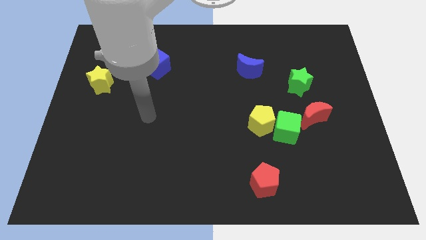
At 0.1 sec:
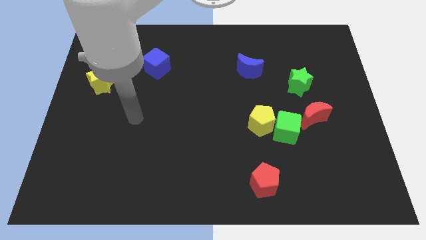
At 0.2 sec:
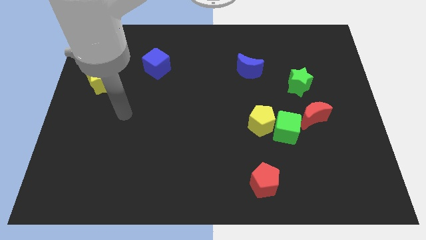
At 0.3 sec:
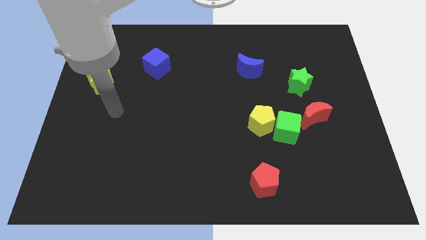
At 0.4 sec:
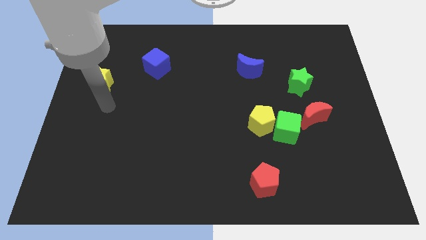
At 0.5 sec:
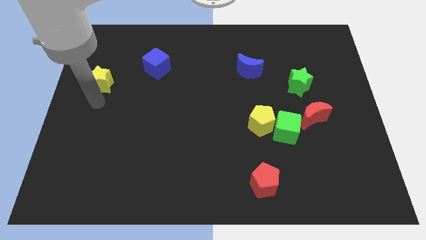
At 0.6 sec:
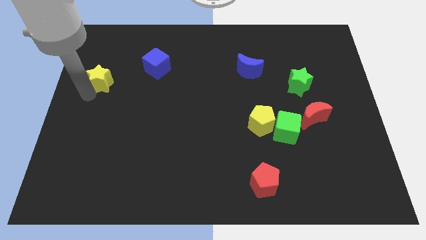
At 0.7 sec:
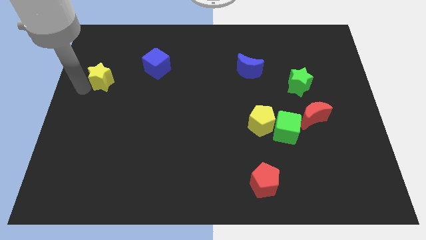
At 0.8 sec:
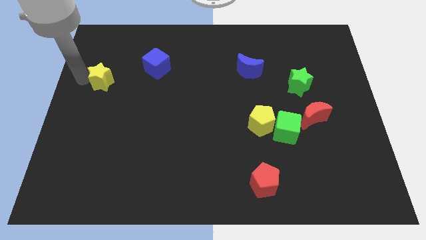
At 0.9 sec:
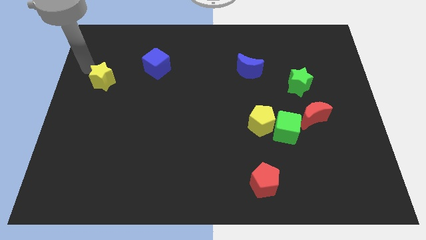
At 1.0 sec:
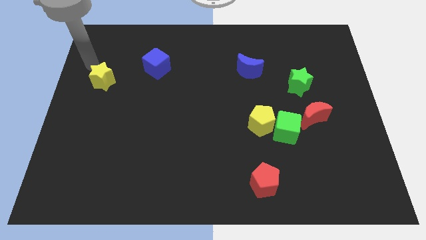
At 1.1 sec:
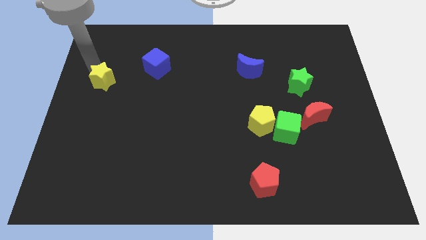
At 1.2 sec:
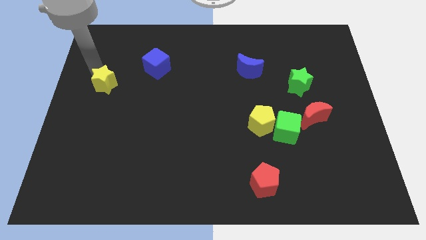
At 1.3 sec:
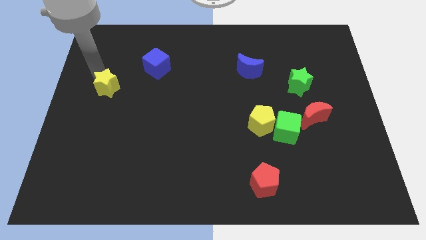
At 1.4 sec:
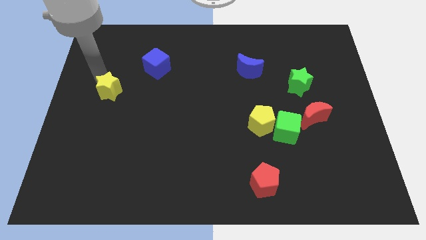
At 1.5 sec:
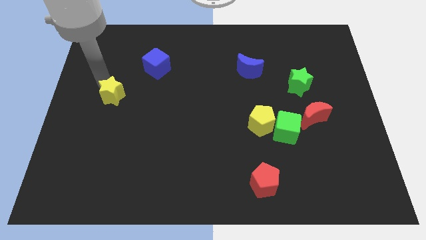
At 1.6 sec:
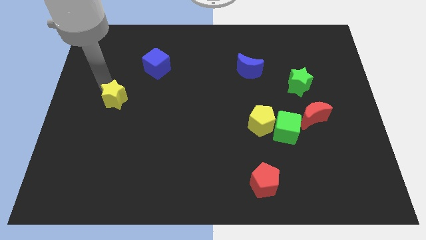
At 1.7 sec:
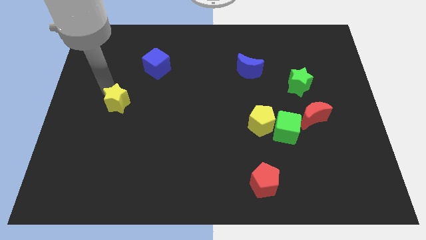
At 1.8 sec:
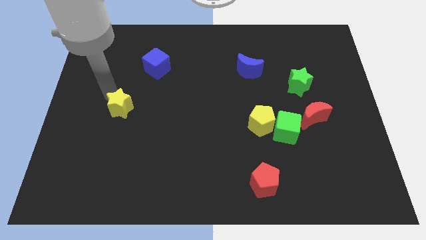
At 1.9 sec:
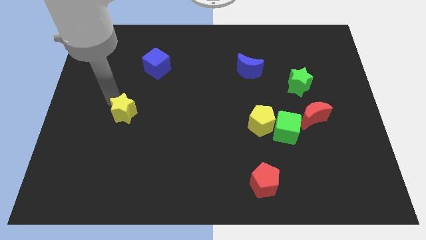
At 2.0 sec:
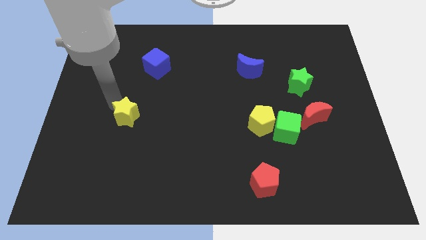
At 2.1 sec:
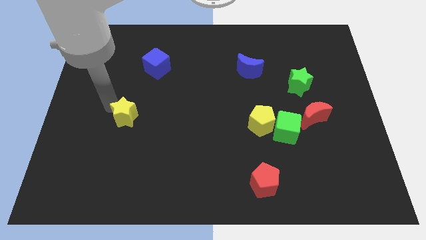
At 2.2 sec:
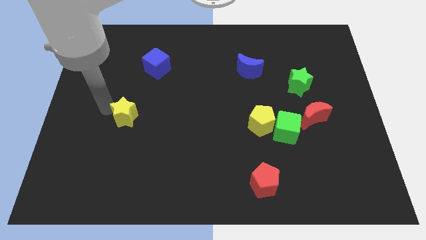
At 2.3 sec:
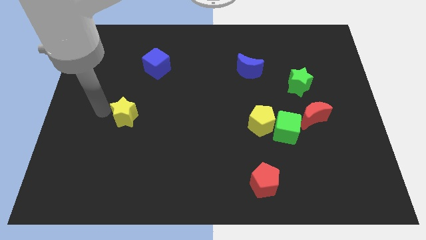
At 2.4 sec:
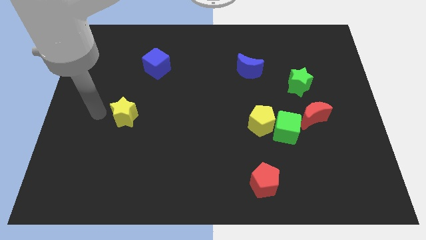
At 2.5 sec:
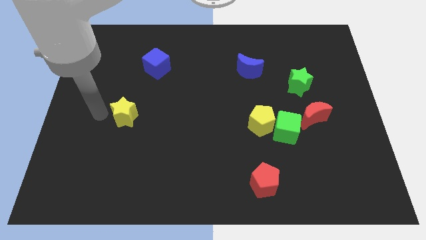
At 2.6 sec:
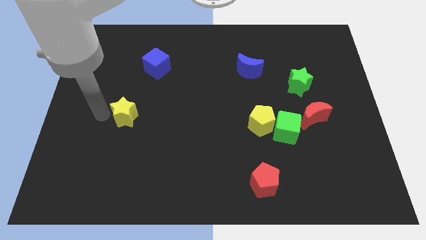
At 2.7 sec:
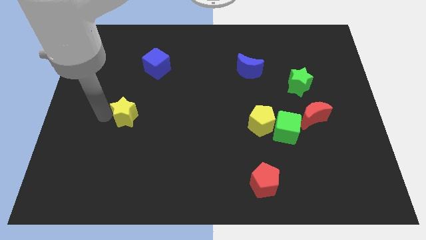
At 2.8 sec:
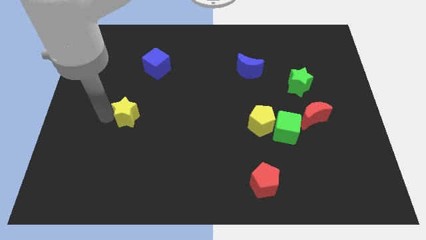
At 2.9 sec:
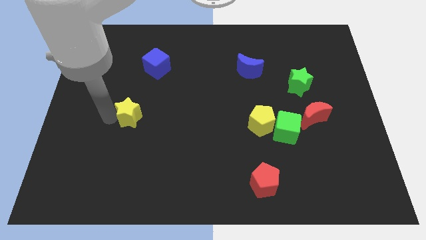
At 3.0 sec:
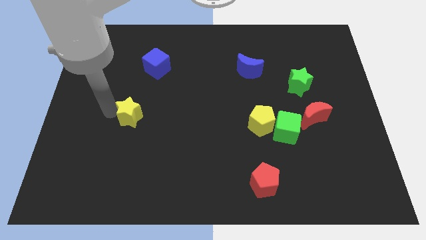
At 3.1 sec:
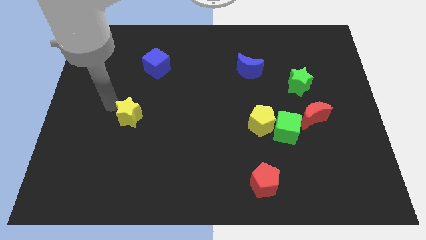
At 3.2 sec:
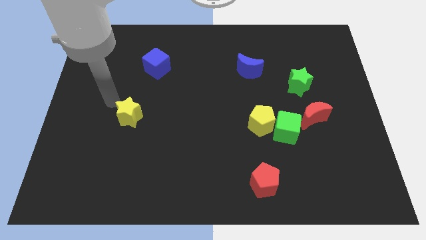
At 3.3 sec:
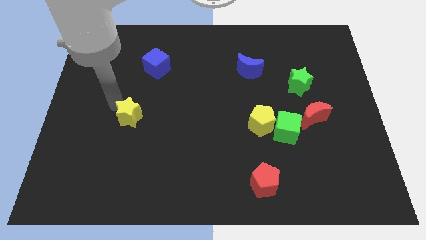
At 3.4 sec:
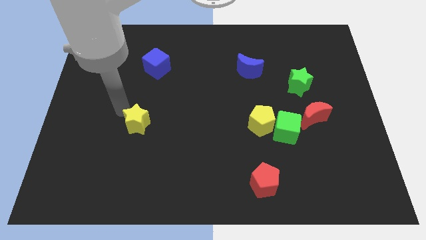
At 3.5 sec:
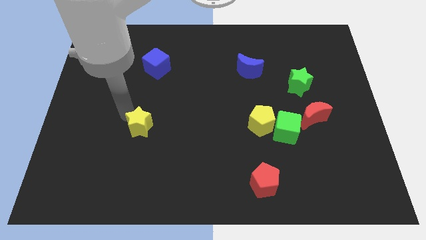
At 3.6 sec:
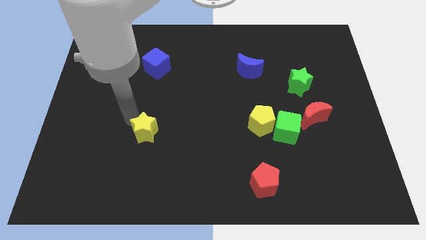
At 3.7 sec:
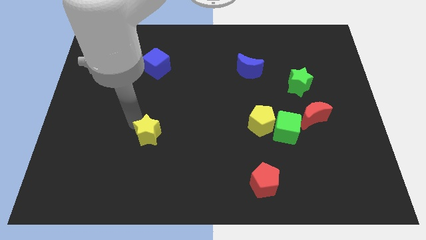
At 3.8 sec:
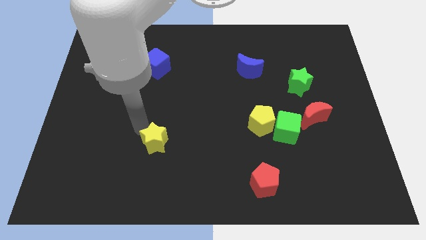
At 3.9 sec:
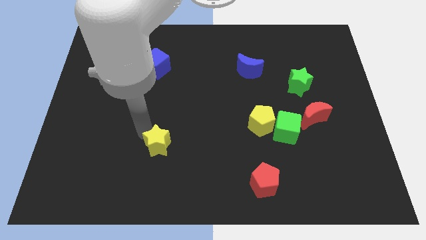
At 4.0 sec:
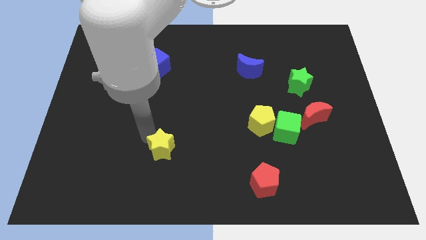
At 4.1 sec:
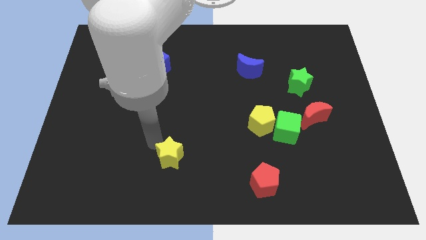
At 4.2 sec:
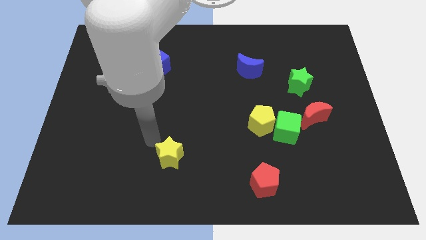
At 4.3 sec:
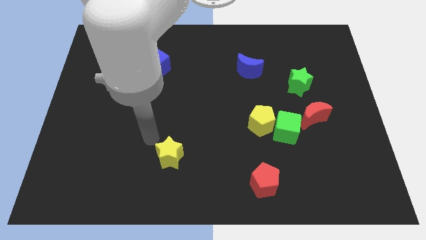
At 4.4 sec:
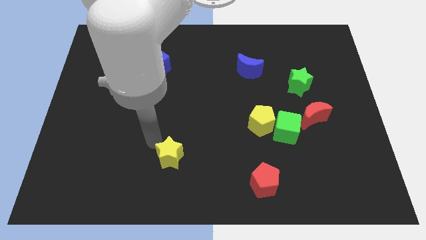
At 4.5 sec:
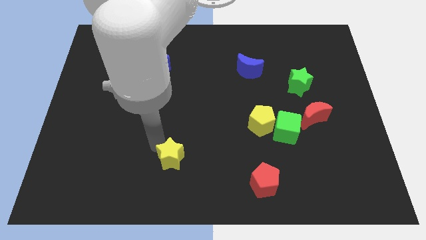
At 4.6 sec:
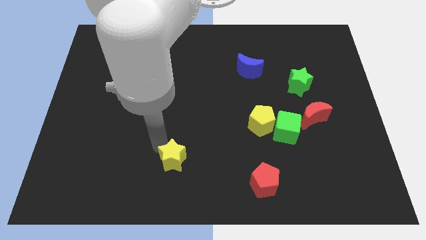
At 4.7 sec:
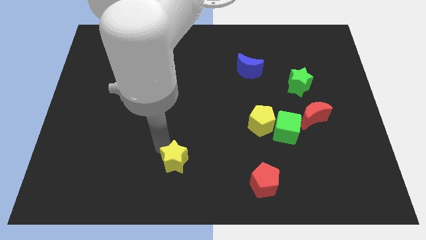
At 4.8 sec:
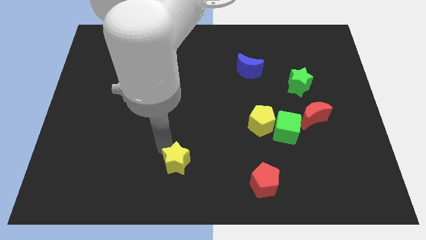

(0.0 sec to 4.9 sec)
slide the yellow star to the bottom side
